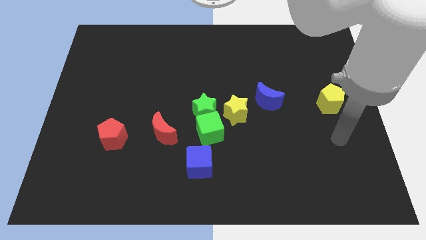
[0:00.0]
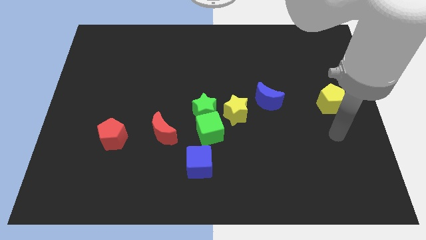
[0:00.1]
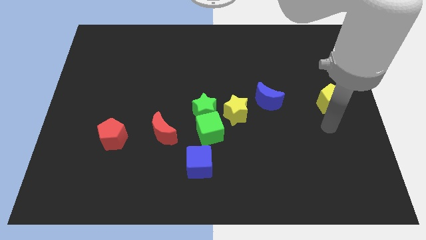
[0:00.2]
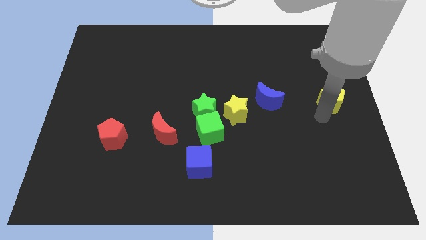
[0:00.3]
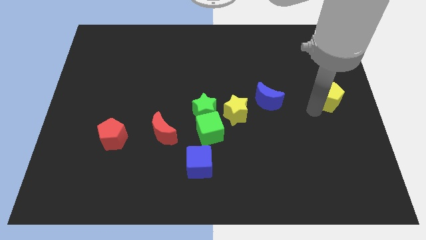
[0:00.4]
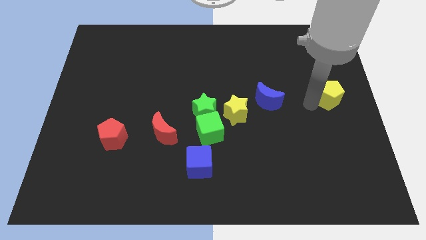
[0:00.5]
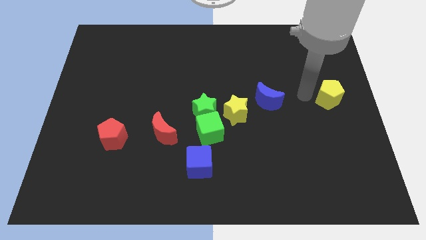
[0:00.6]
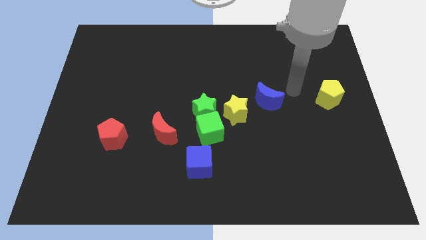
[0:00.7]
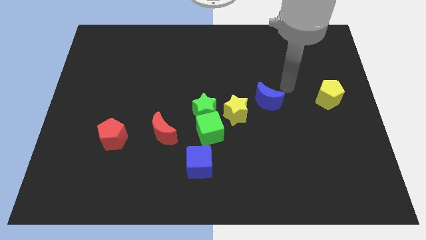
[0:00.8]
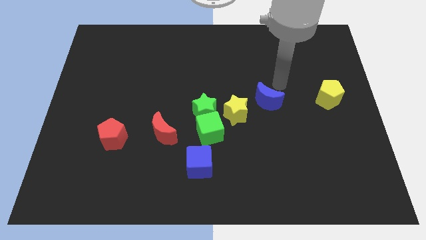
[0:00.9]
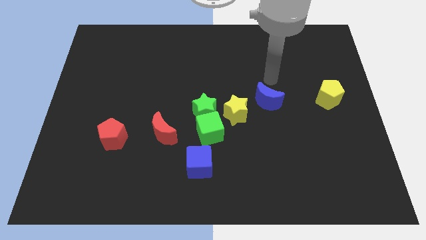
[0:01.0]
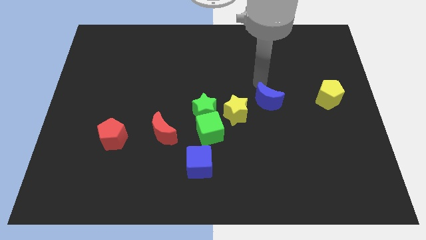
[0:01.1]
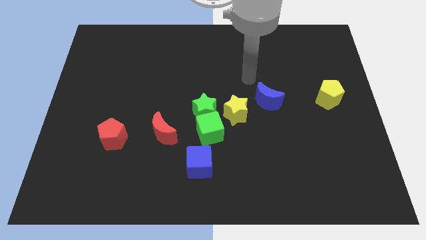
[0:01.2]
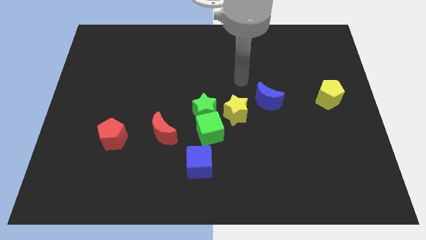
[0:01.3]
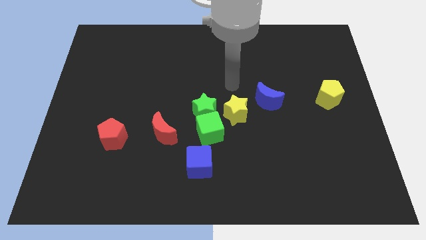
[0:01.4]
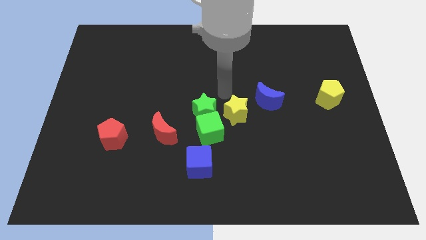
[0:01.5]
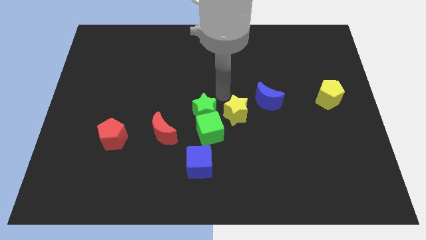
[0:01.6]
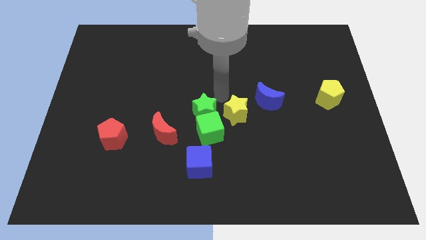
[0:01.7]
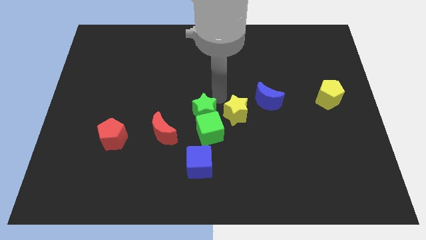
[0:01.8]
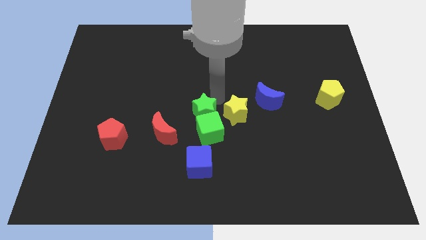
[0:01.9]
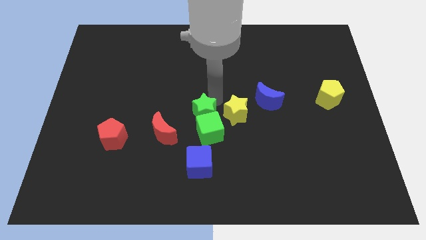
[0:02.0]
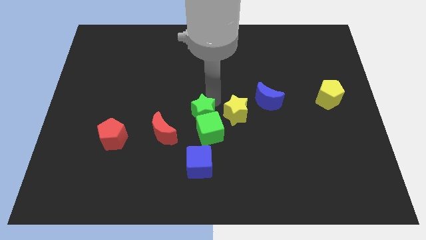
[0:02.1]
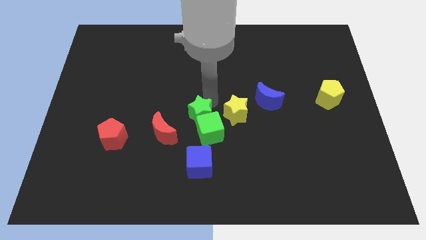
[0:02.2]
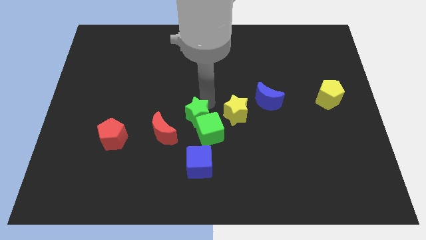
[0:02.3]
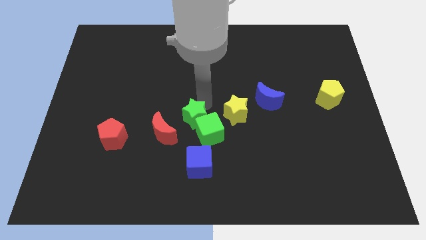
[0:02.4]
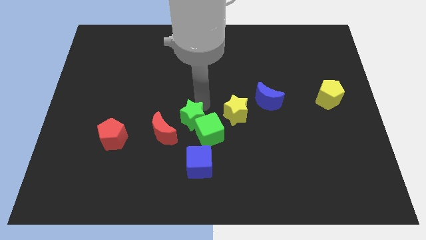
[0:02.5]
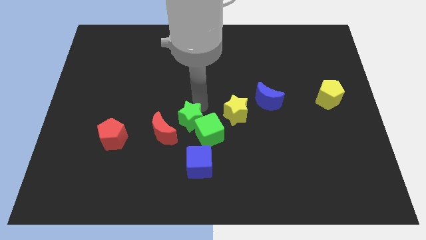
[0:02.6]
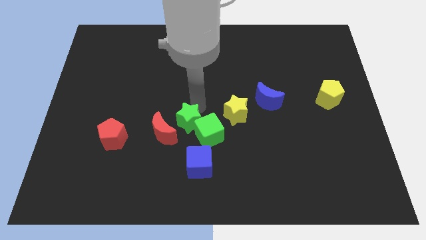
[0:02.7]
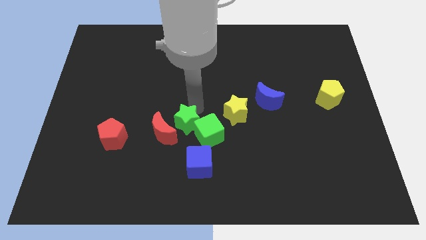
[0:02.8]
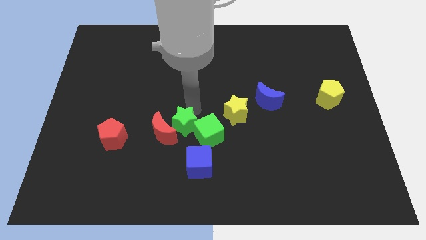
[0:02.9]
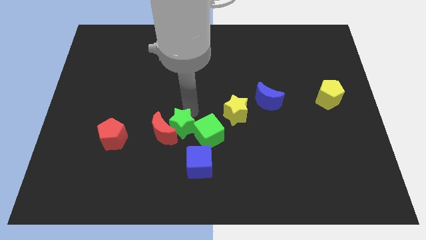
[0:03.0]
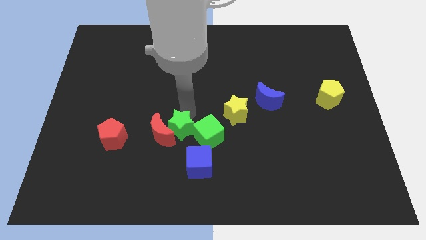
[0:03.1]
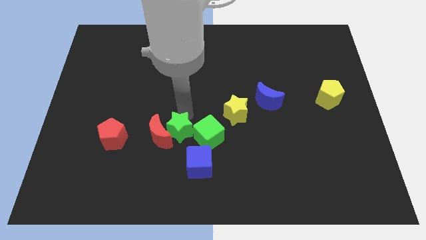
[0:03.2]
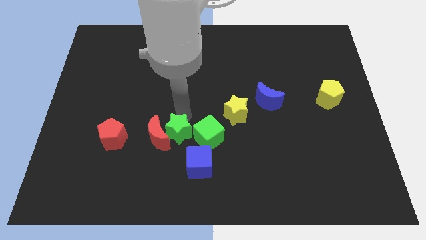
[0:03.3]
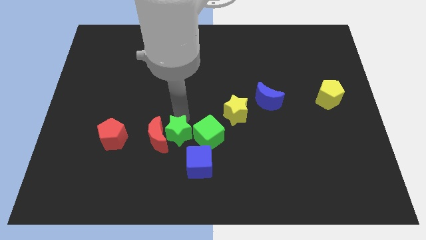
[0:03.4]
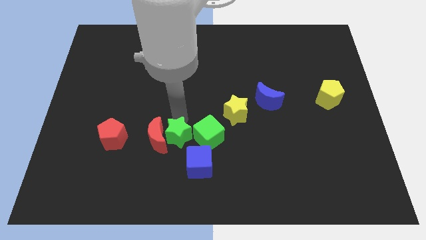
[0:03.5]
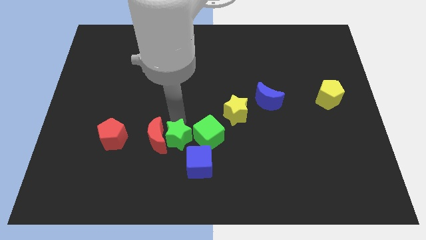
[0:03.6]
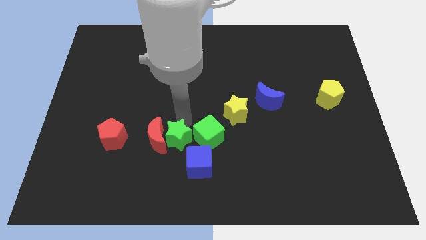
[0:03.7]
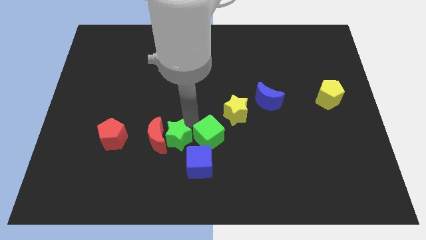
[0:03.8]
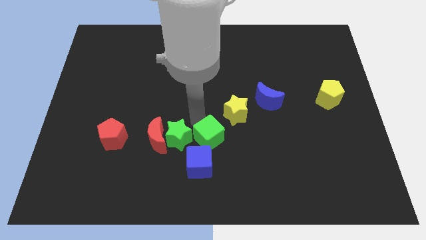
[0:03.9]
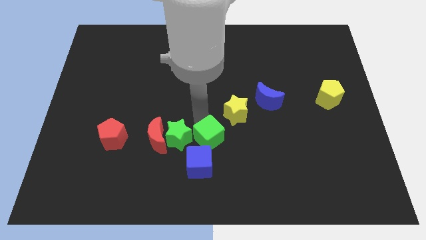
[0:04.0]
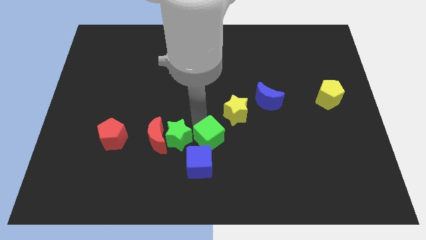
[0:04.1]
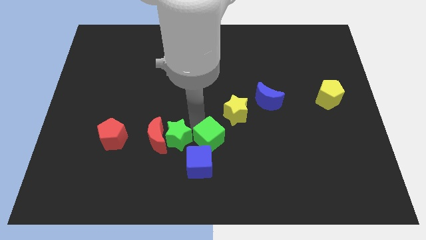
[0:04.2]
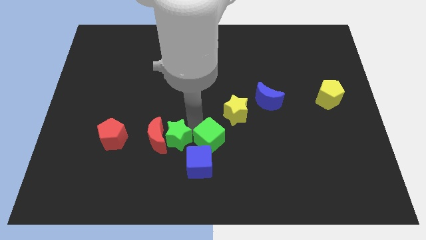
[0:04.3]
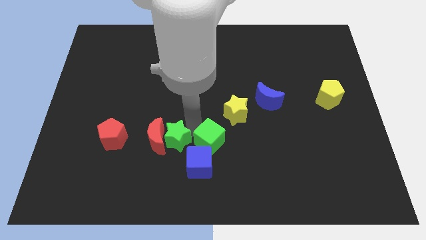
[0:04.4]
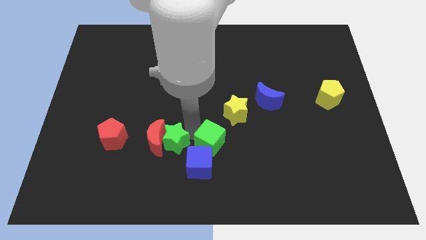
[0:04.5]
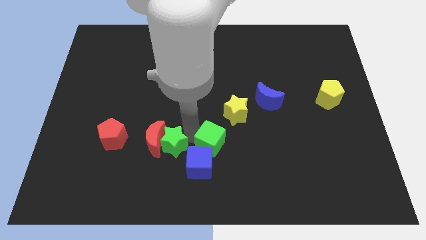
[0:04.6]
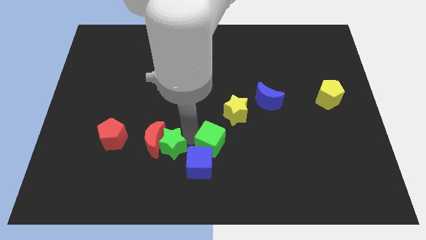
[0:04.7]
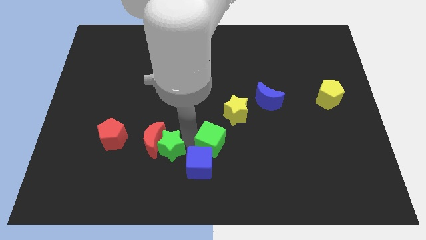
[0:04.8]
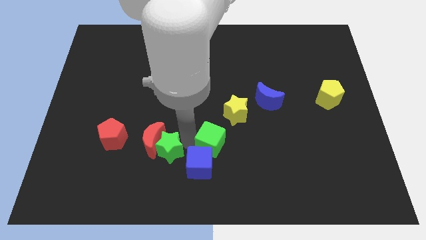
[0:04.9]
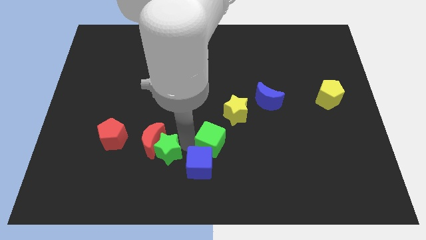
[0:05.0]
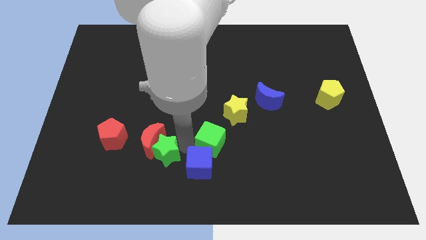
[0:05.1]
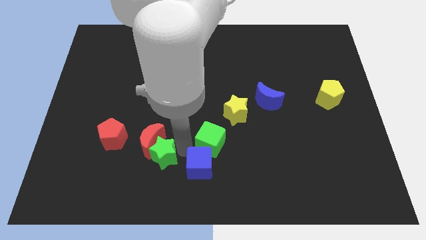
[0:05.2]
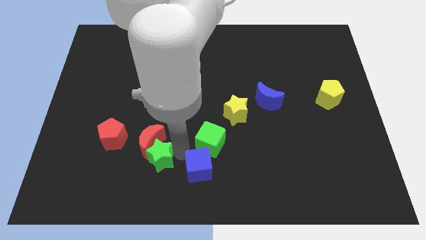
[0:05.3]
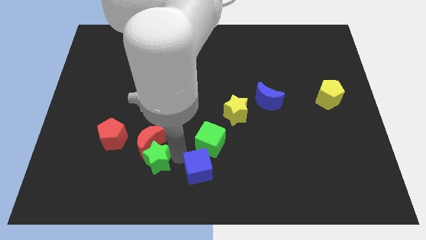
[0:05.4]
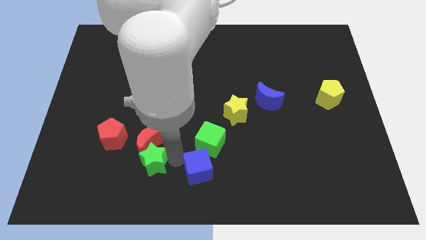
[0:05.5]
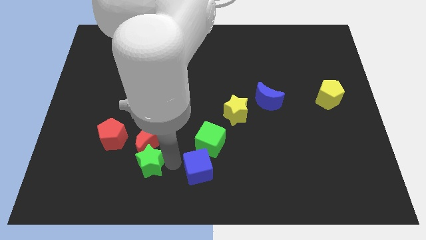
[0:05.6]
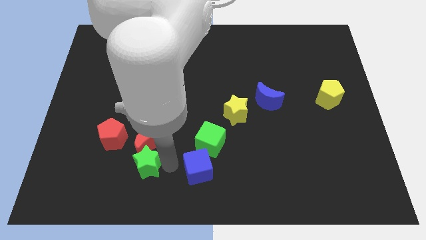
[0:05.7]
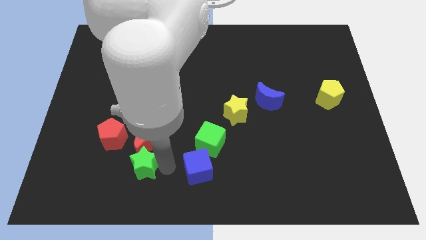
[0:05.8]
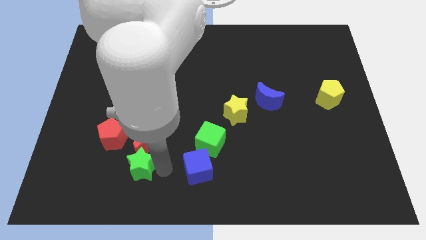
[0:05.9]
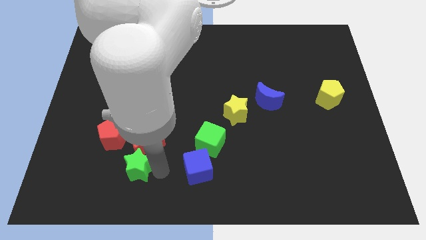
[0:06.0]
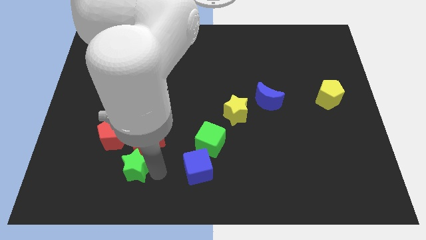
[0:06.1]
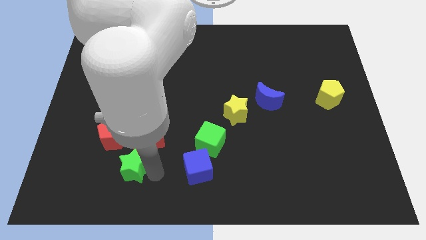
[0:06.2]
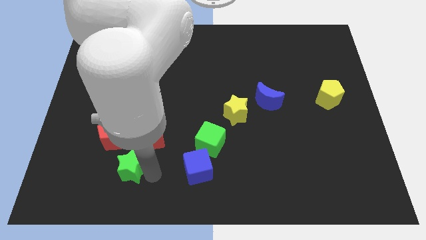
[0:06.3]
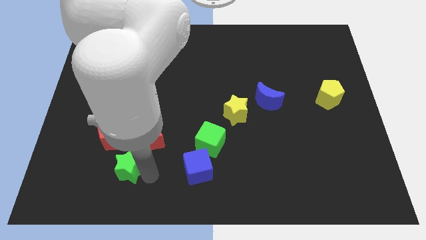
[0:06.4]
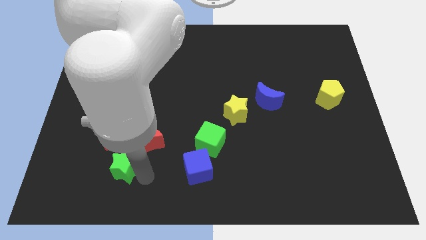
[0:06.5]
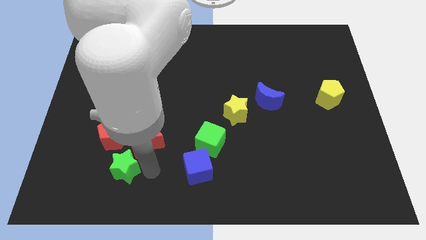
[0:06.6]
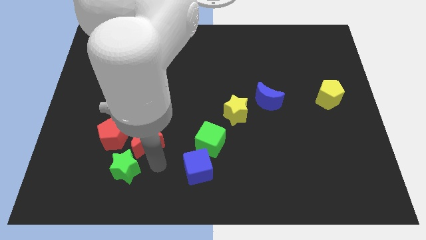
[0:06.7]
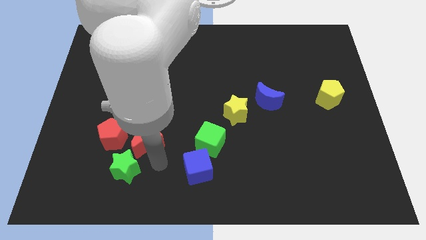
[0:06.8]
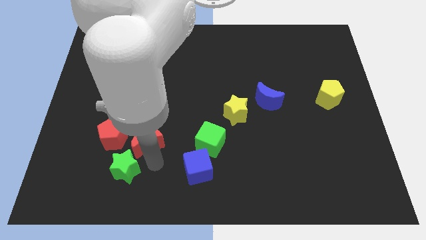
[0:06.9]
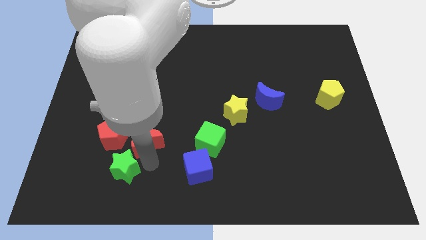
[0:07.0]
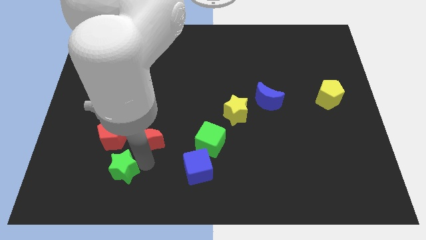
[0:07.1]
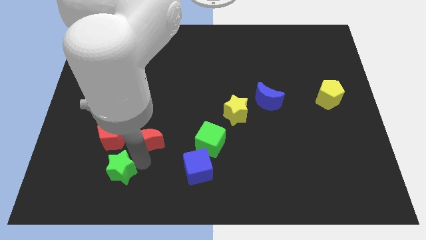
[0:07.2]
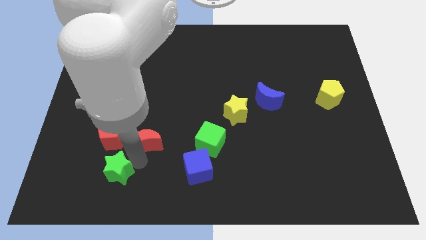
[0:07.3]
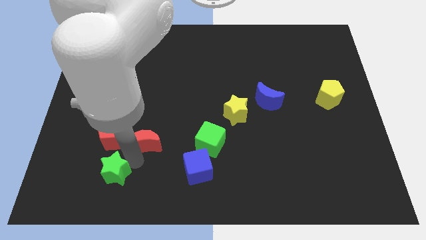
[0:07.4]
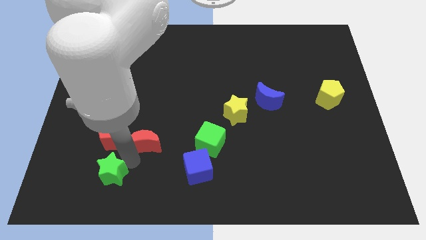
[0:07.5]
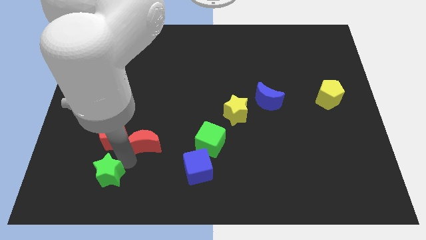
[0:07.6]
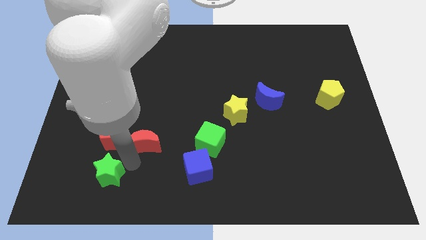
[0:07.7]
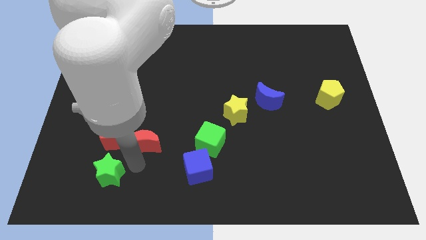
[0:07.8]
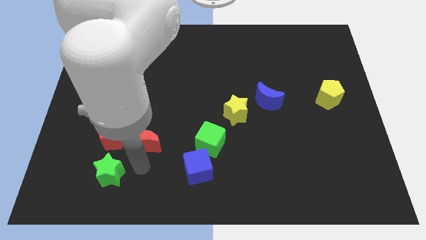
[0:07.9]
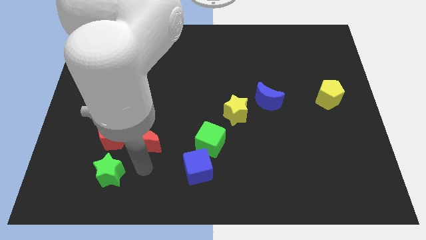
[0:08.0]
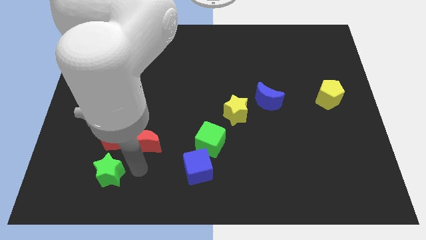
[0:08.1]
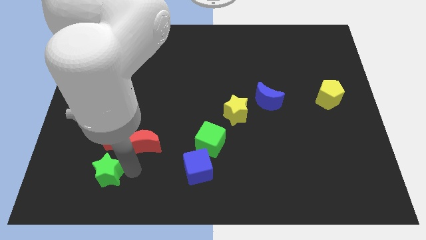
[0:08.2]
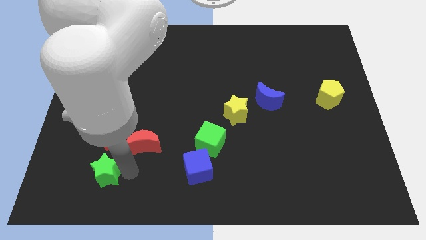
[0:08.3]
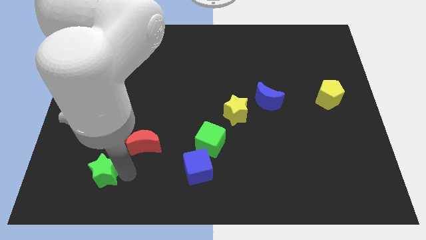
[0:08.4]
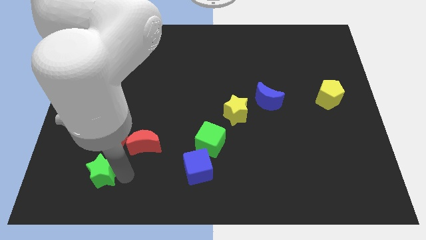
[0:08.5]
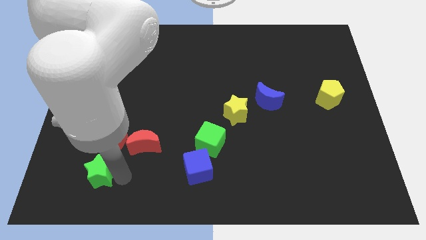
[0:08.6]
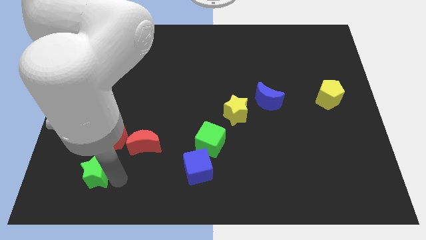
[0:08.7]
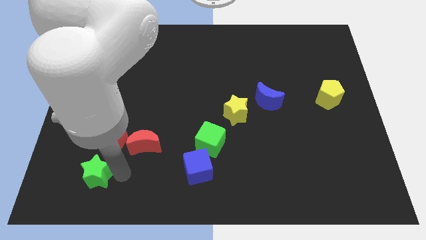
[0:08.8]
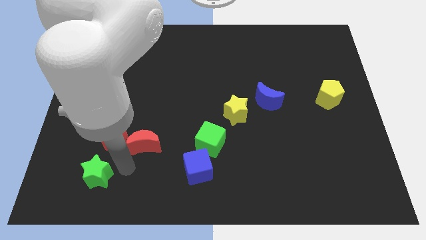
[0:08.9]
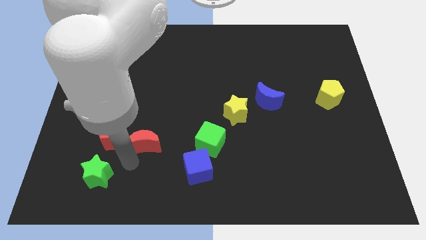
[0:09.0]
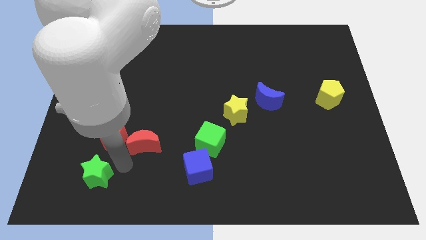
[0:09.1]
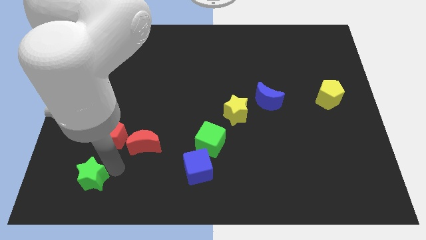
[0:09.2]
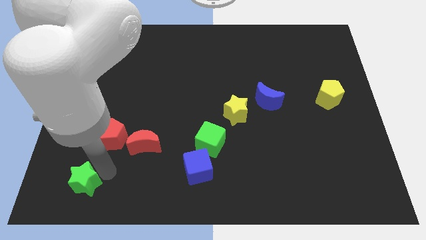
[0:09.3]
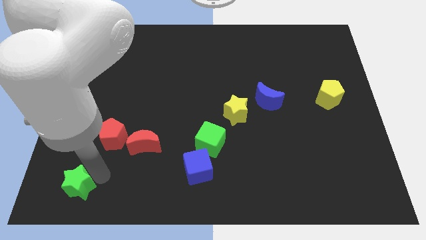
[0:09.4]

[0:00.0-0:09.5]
push the green star to the bottom left of the board
